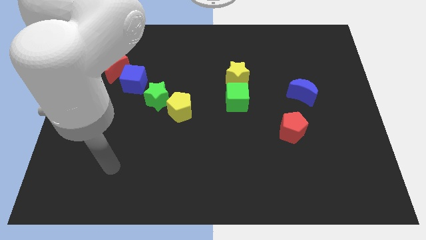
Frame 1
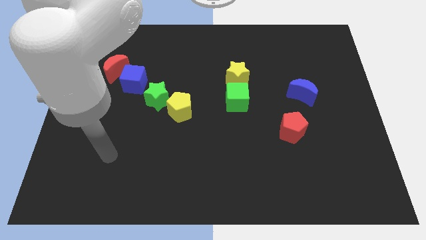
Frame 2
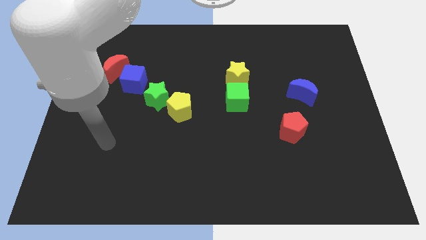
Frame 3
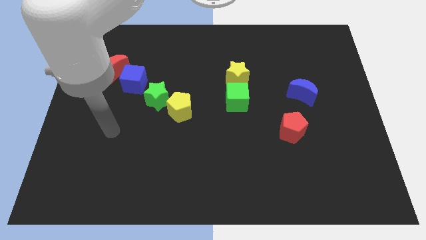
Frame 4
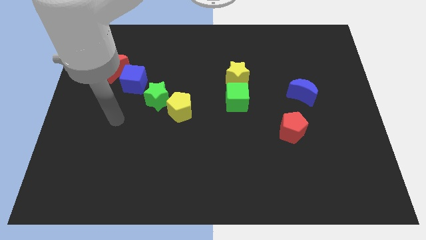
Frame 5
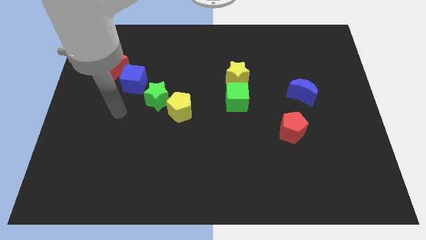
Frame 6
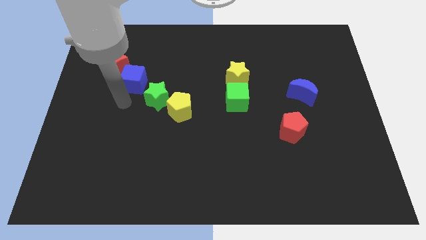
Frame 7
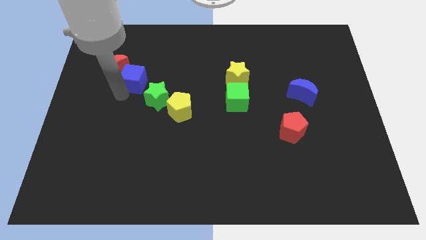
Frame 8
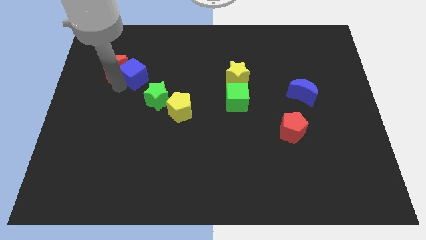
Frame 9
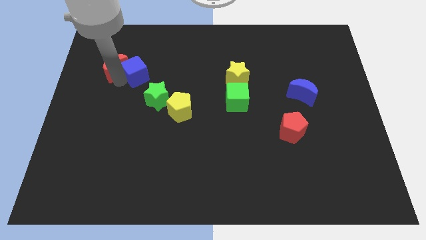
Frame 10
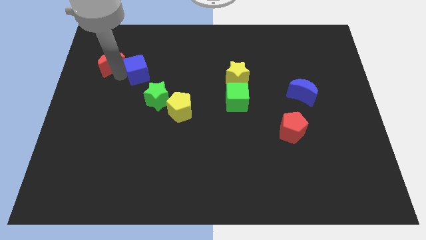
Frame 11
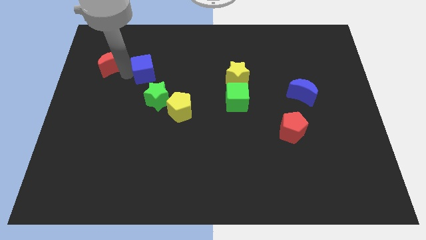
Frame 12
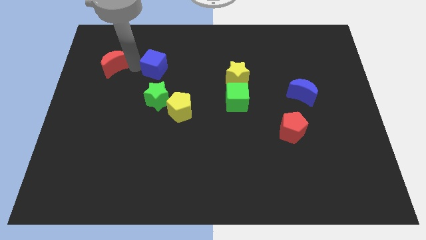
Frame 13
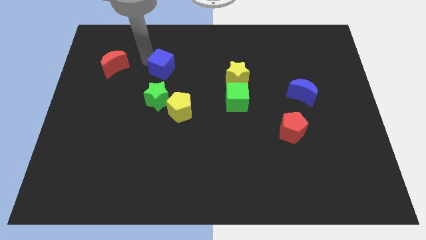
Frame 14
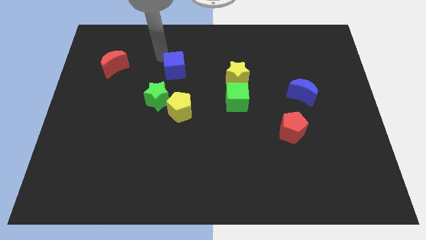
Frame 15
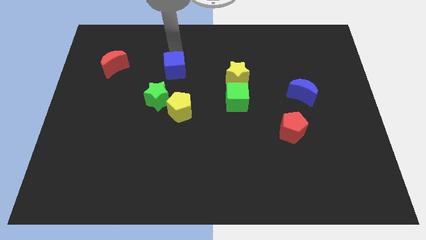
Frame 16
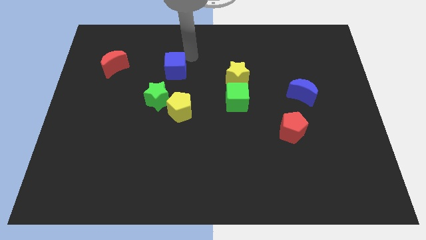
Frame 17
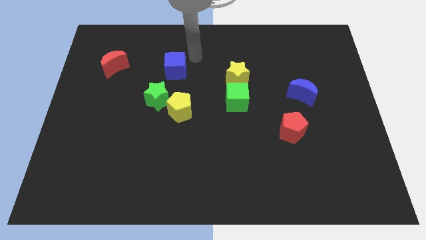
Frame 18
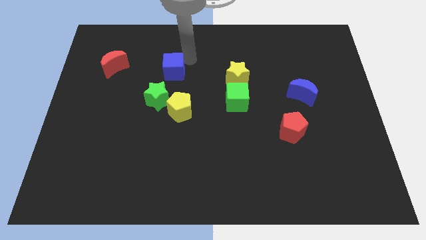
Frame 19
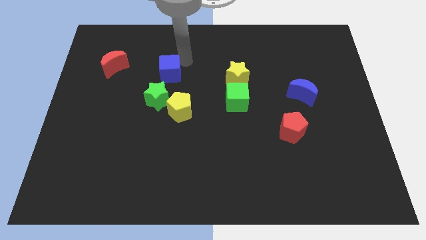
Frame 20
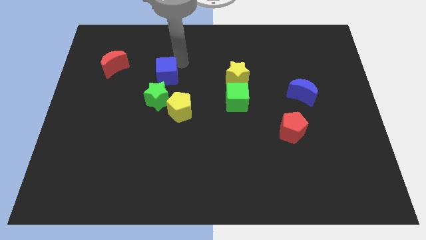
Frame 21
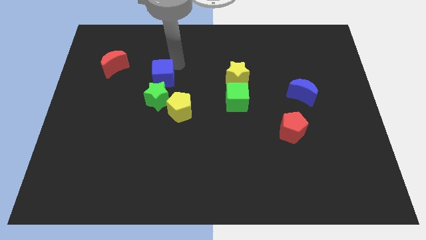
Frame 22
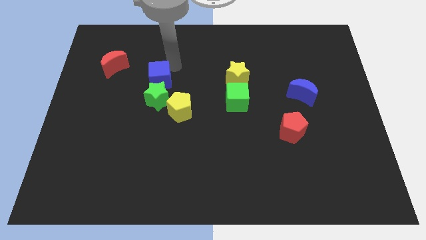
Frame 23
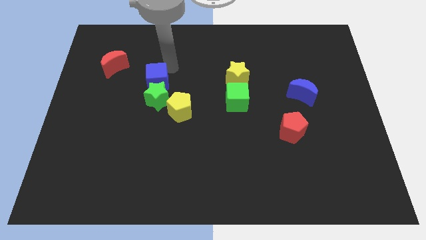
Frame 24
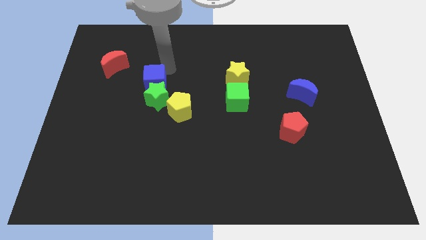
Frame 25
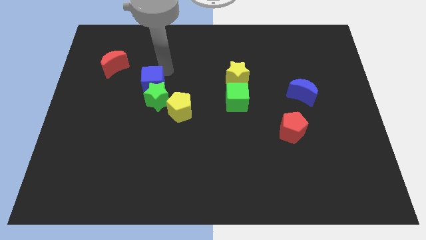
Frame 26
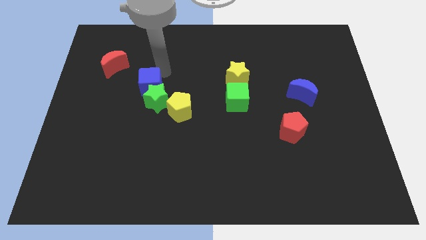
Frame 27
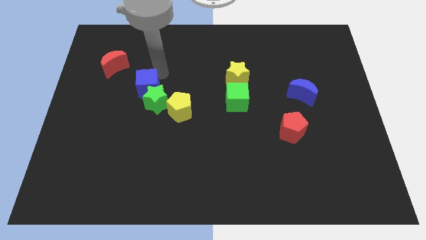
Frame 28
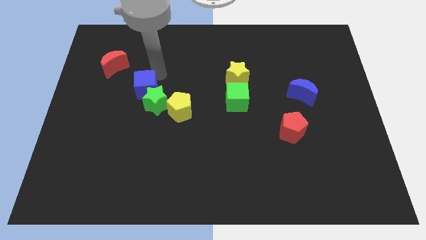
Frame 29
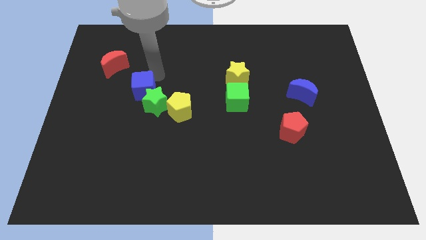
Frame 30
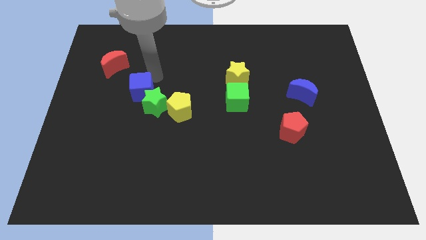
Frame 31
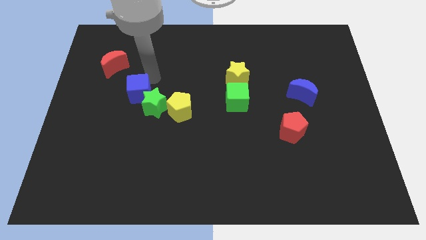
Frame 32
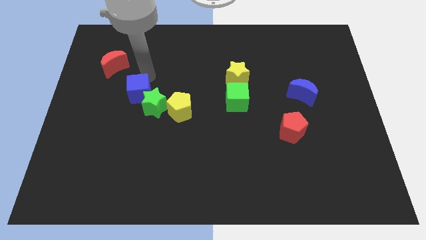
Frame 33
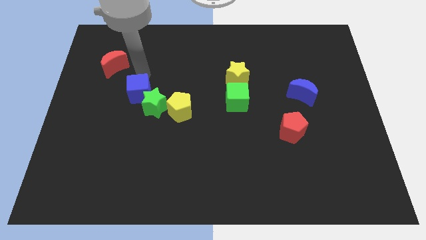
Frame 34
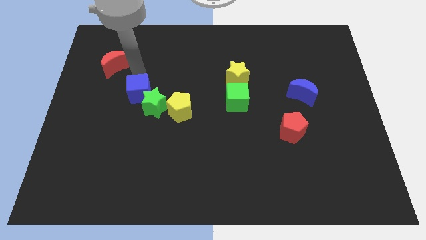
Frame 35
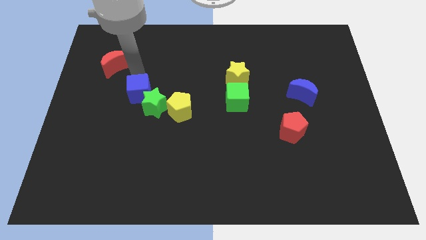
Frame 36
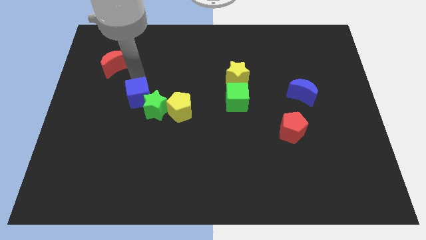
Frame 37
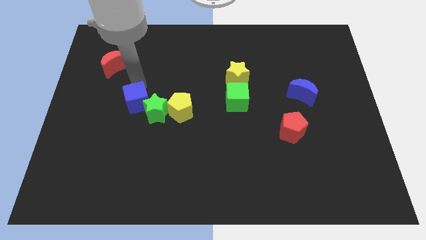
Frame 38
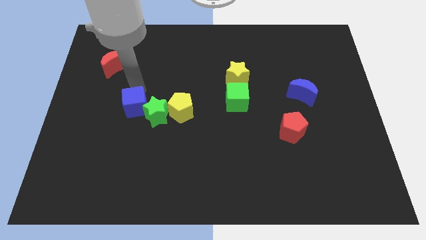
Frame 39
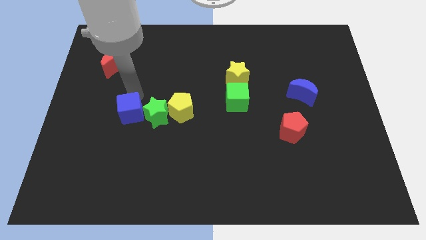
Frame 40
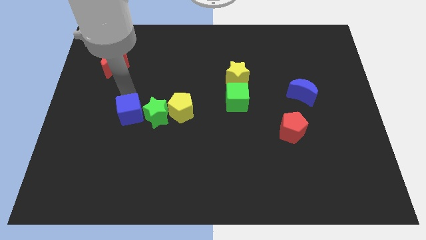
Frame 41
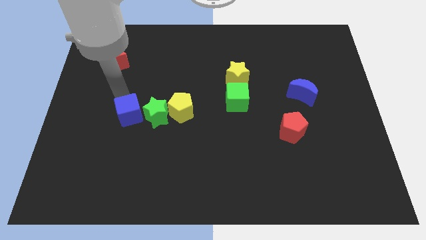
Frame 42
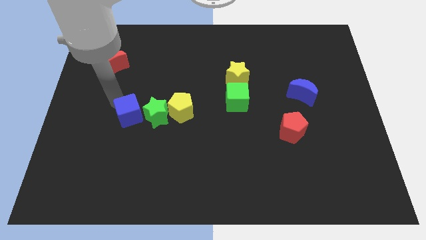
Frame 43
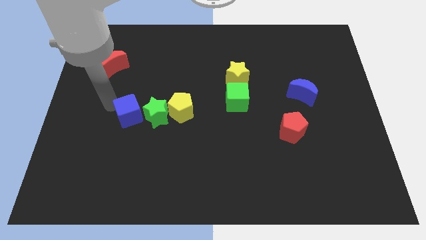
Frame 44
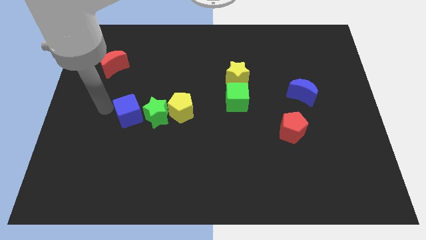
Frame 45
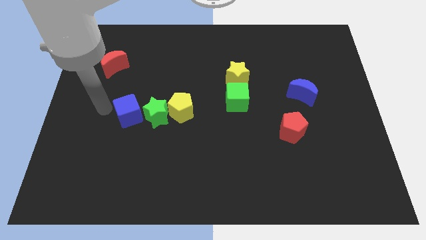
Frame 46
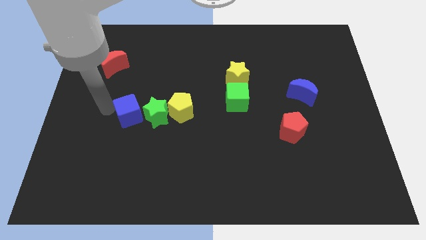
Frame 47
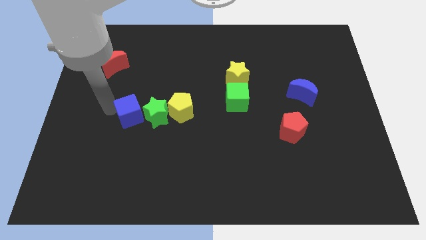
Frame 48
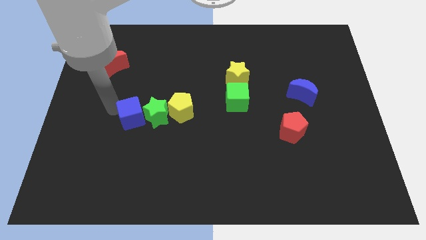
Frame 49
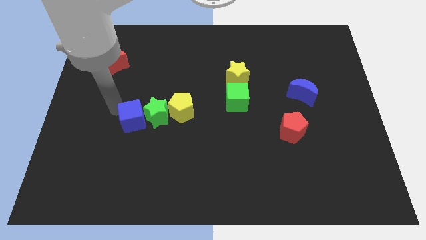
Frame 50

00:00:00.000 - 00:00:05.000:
slightly push the blue cube downwards and to the right

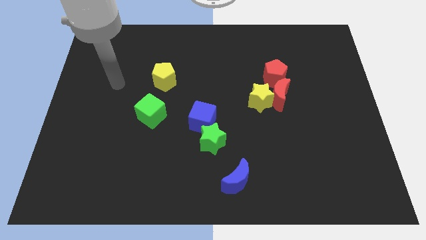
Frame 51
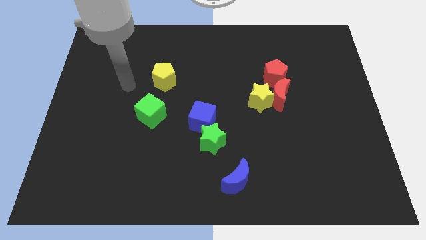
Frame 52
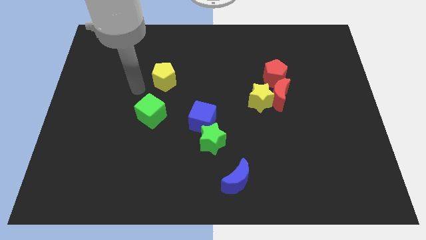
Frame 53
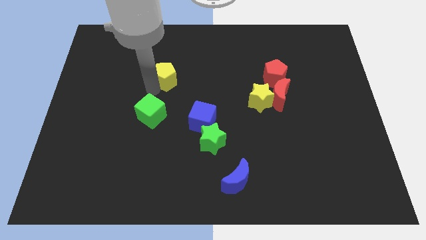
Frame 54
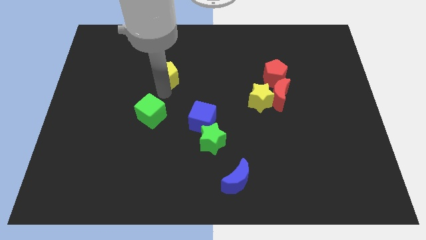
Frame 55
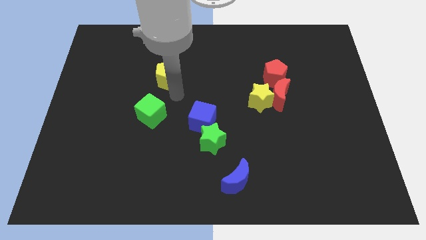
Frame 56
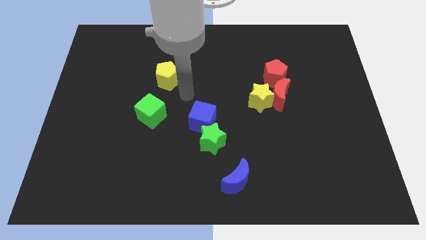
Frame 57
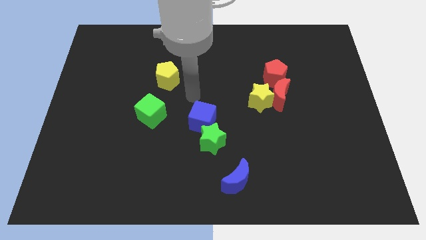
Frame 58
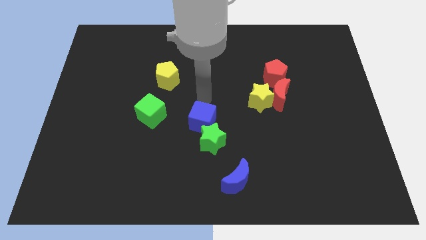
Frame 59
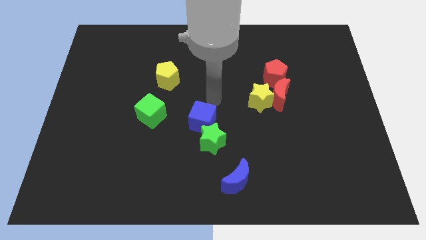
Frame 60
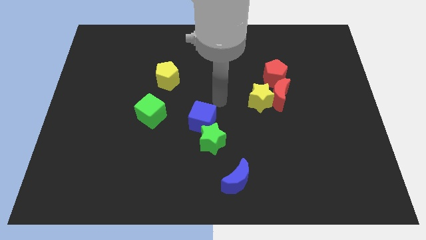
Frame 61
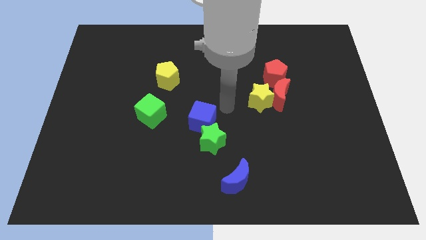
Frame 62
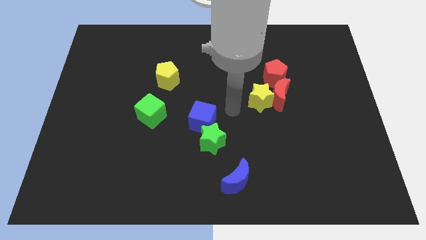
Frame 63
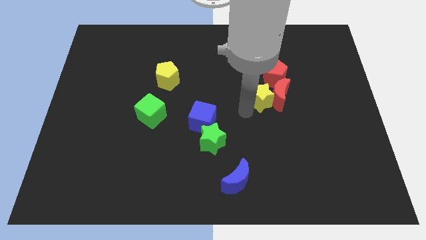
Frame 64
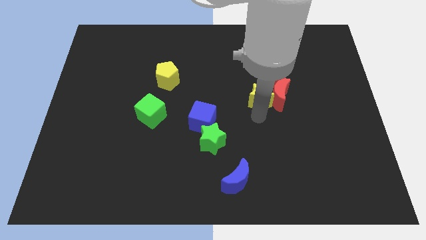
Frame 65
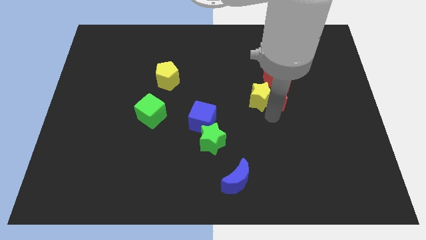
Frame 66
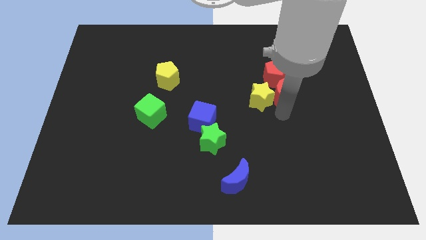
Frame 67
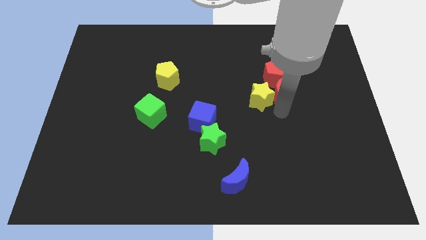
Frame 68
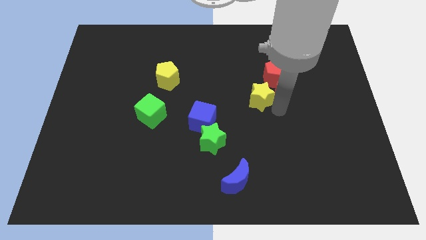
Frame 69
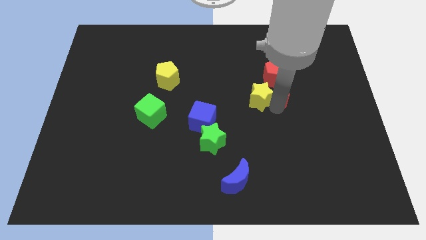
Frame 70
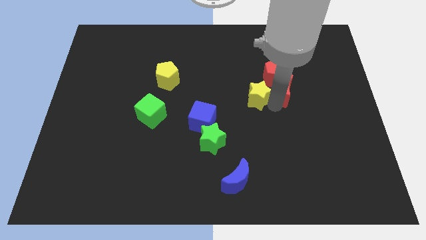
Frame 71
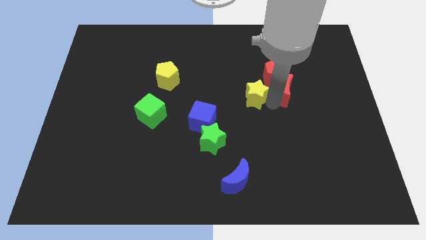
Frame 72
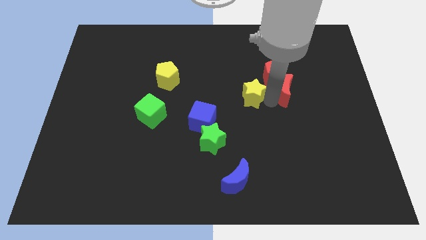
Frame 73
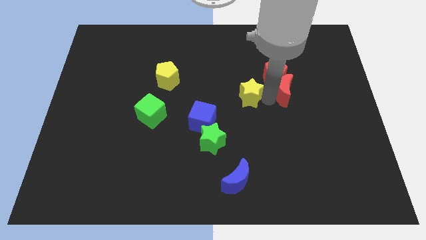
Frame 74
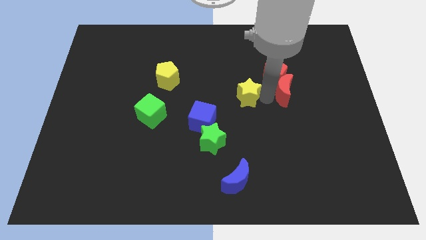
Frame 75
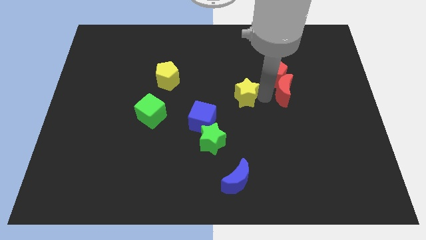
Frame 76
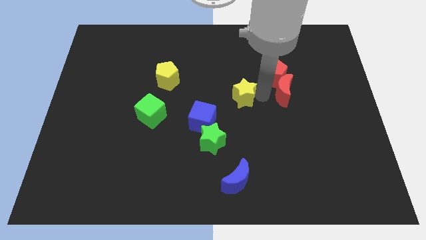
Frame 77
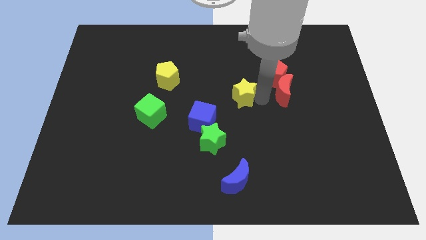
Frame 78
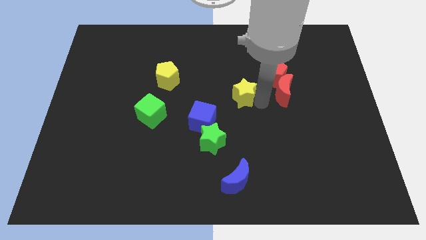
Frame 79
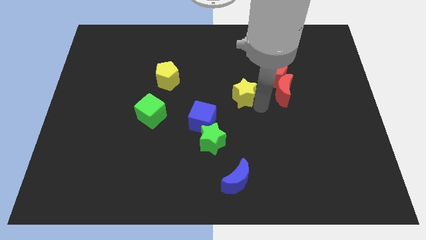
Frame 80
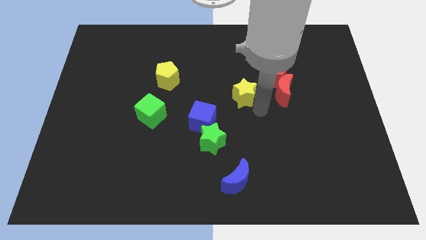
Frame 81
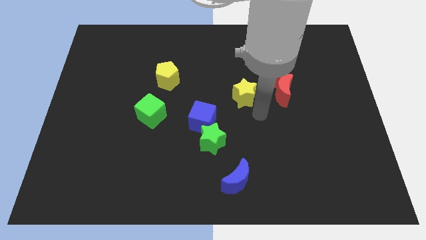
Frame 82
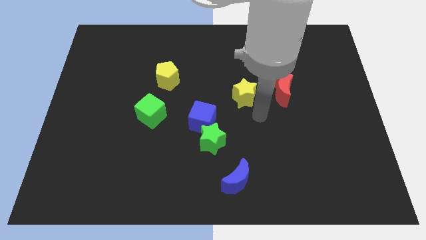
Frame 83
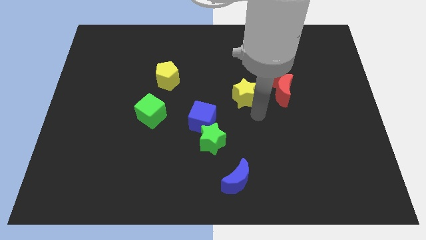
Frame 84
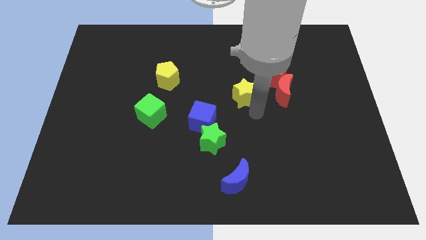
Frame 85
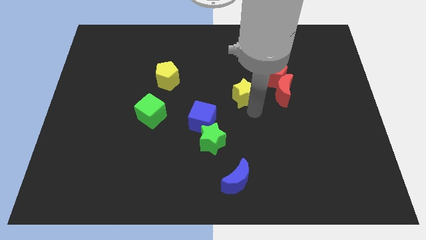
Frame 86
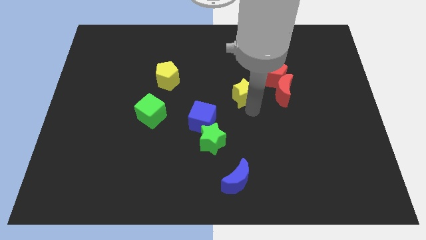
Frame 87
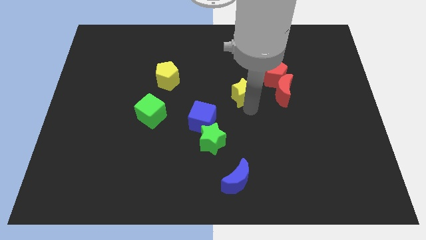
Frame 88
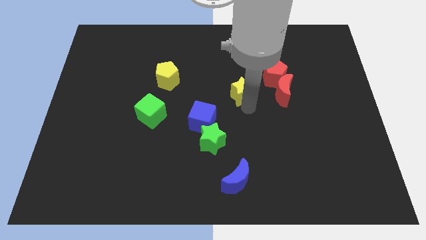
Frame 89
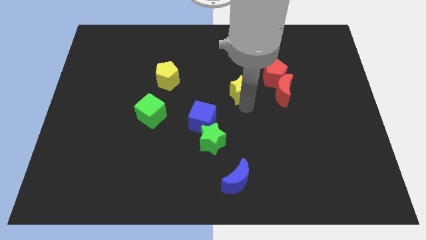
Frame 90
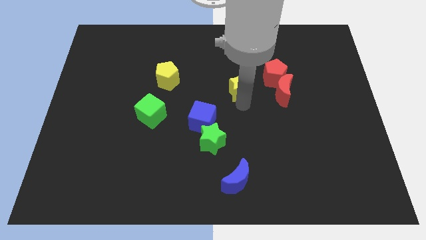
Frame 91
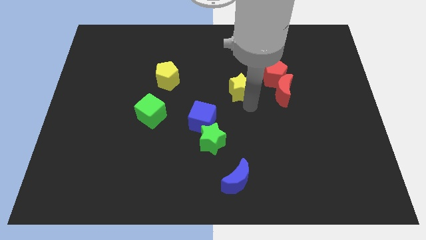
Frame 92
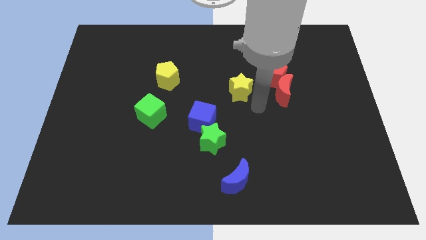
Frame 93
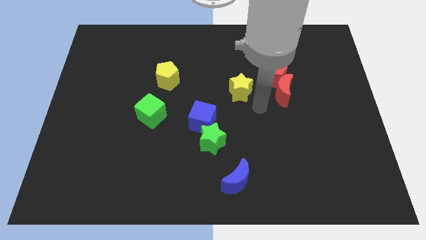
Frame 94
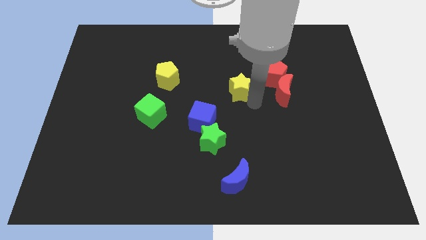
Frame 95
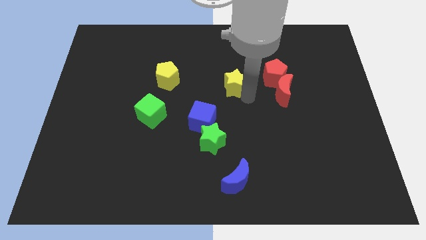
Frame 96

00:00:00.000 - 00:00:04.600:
slightly move the yellow star up and then left
